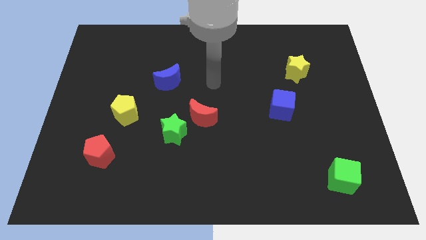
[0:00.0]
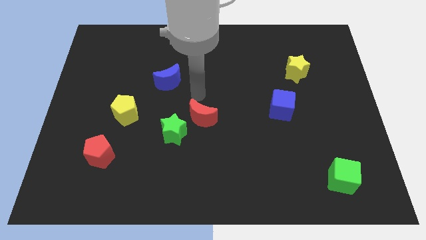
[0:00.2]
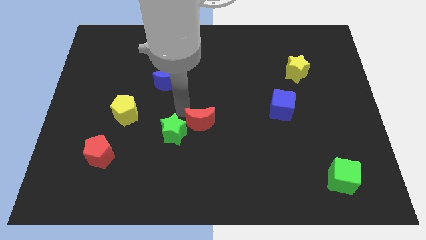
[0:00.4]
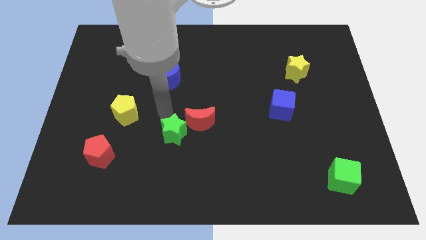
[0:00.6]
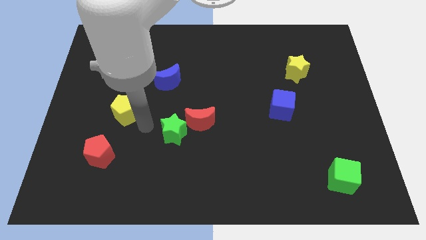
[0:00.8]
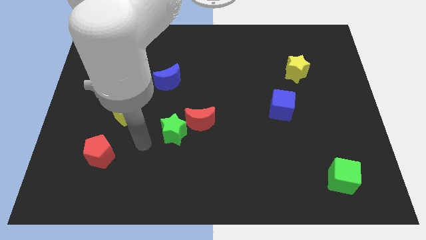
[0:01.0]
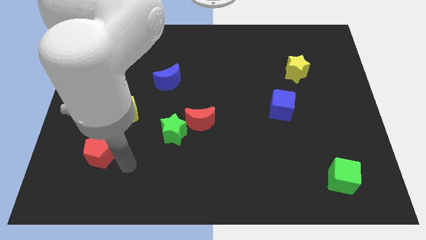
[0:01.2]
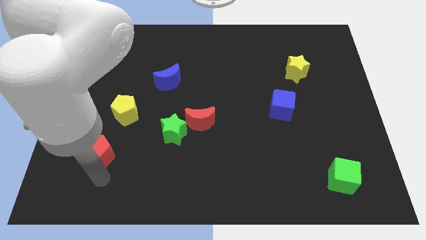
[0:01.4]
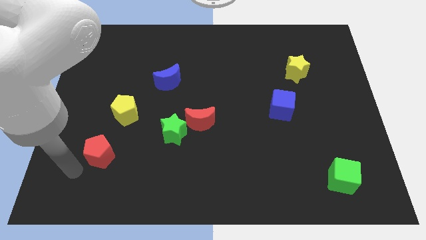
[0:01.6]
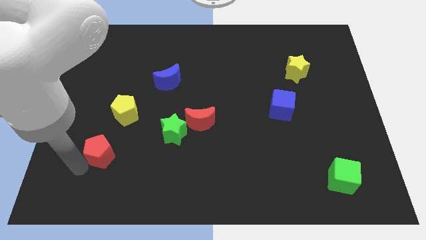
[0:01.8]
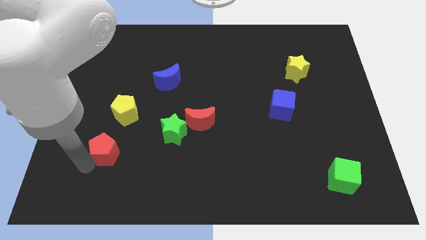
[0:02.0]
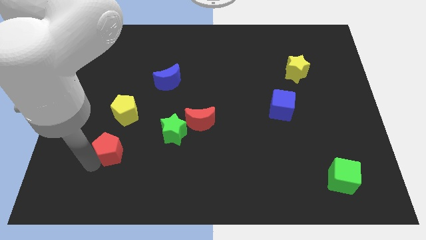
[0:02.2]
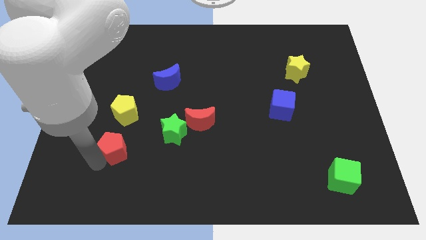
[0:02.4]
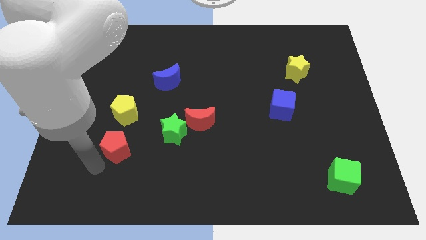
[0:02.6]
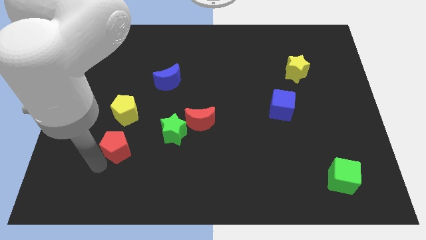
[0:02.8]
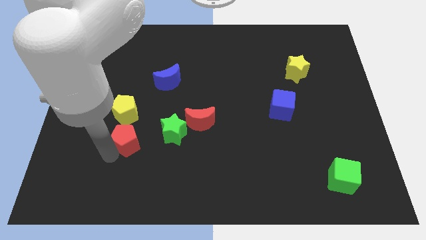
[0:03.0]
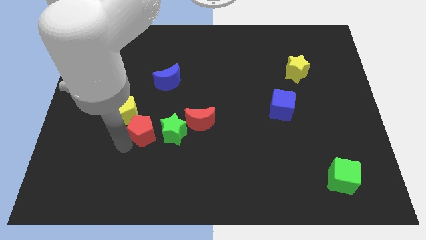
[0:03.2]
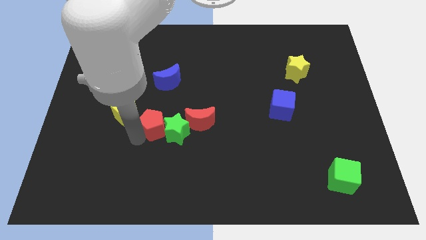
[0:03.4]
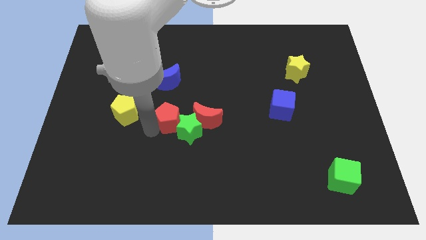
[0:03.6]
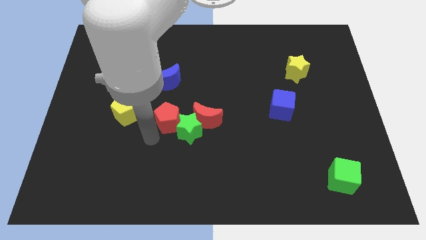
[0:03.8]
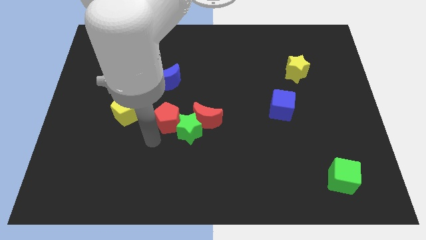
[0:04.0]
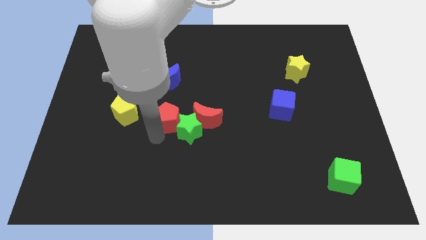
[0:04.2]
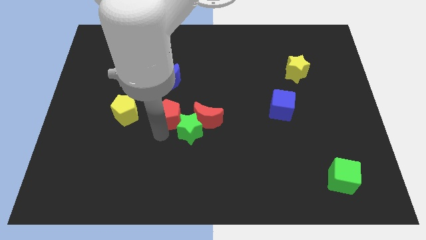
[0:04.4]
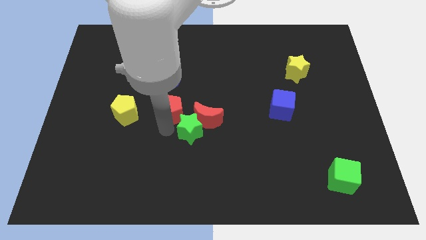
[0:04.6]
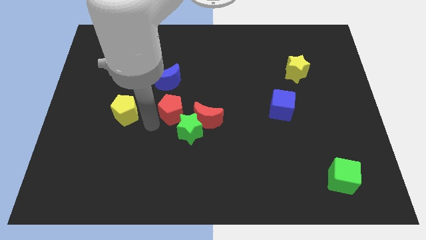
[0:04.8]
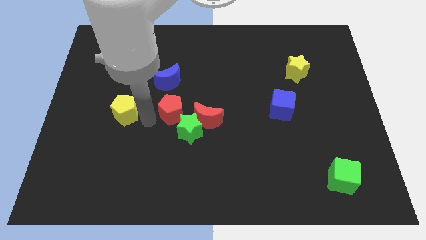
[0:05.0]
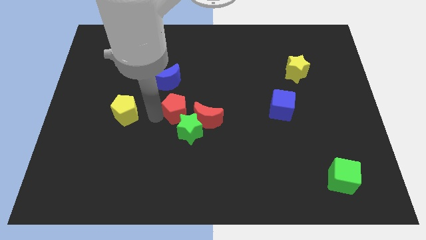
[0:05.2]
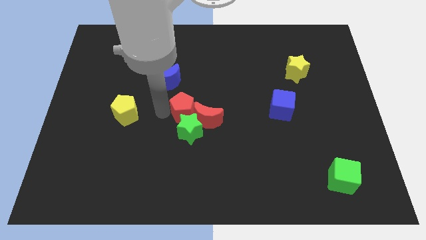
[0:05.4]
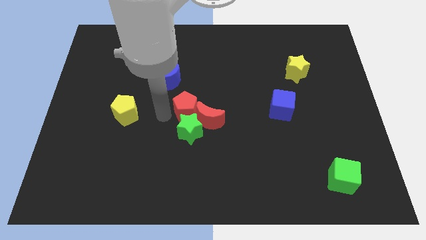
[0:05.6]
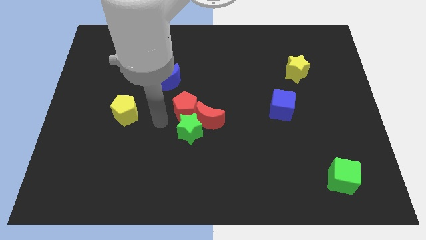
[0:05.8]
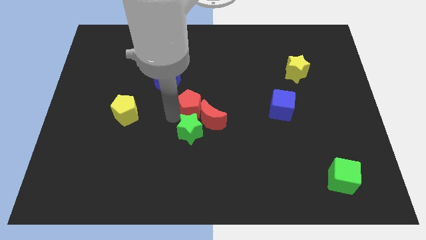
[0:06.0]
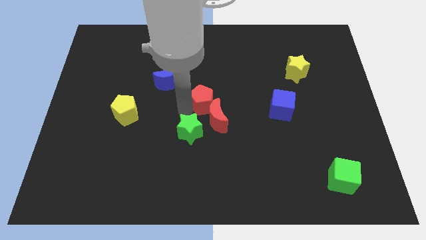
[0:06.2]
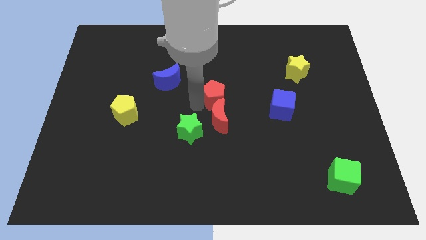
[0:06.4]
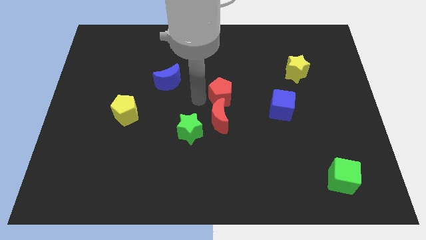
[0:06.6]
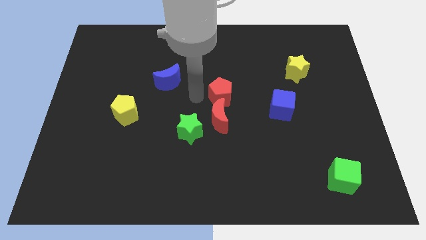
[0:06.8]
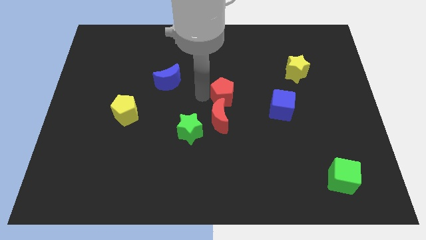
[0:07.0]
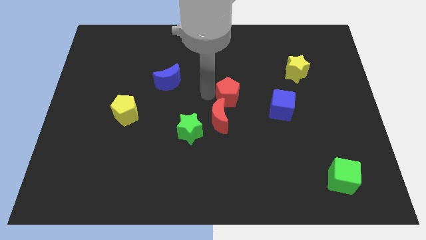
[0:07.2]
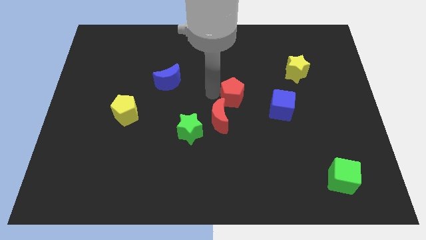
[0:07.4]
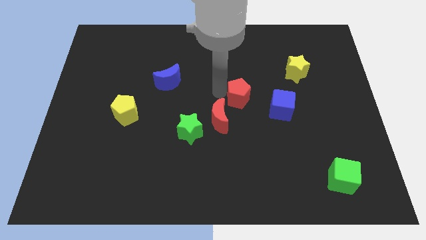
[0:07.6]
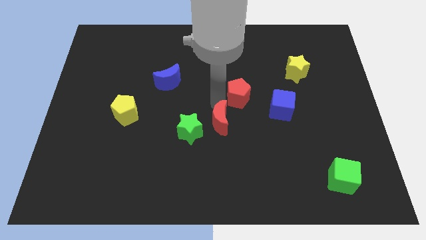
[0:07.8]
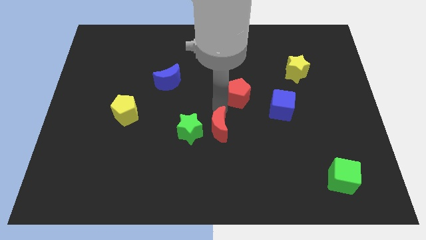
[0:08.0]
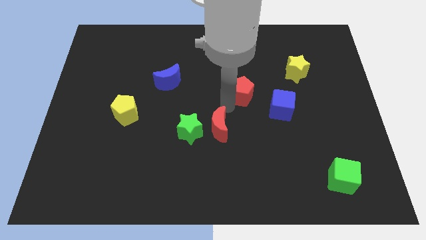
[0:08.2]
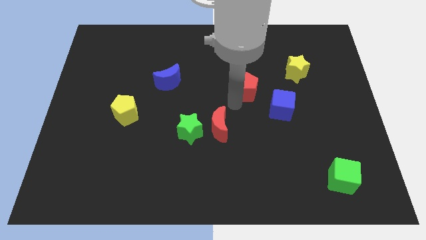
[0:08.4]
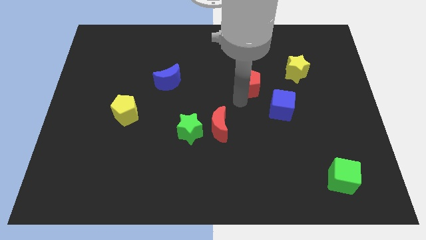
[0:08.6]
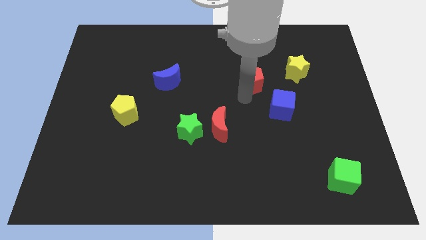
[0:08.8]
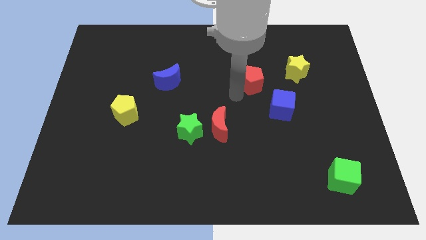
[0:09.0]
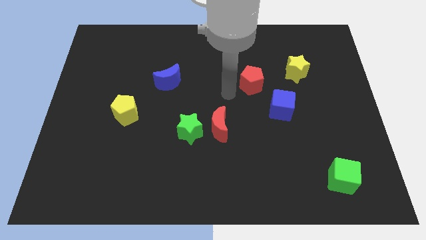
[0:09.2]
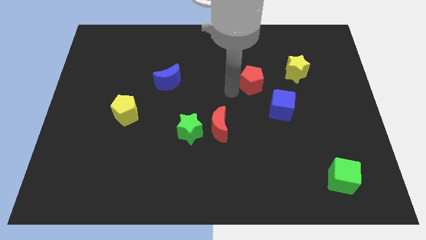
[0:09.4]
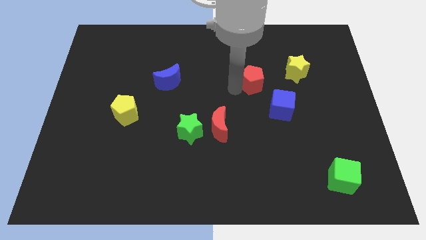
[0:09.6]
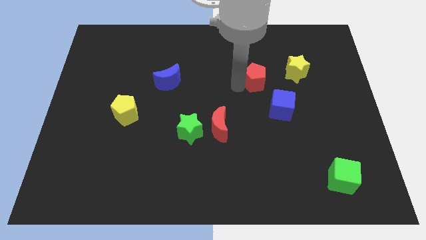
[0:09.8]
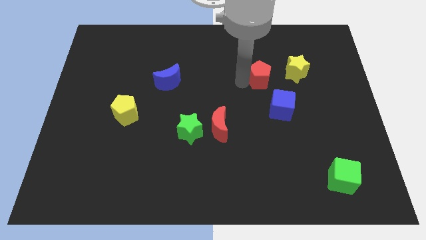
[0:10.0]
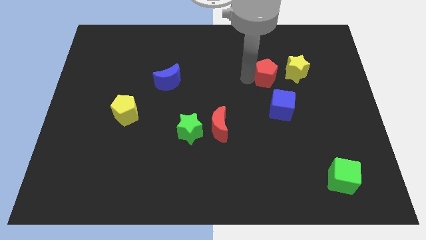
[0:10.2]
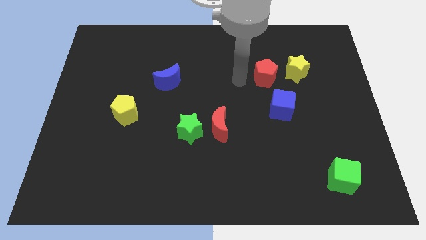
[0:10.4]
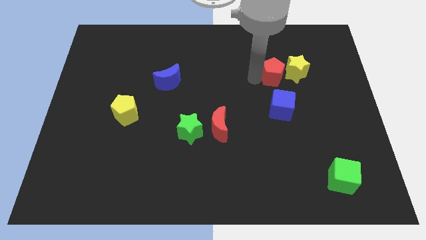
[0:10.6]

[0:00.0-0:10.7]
push the red pentagon close to the yellow star

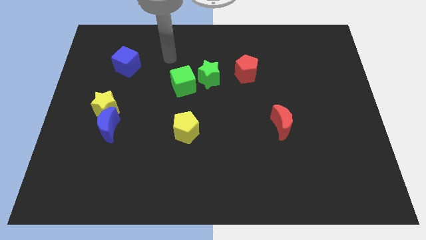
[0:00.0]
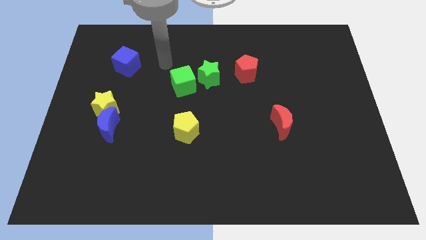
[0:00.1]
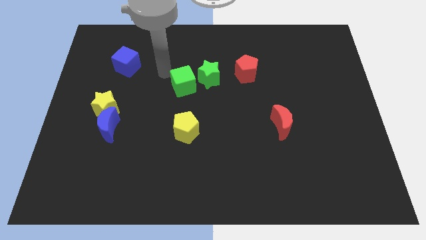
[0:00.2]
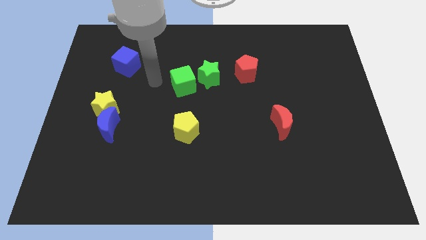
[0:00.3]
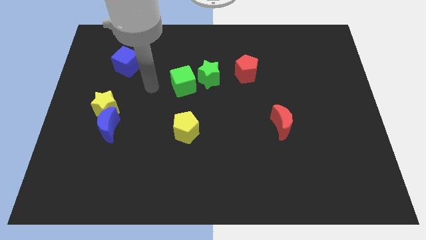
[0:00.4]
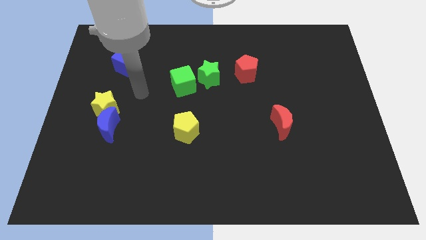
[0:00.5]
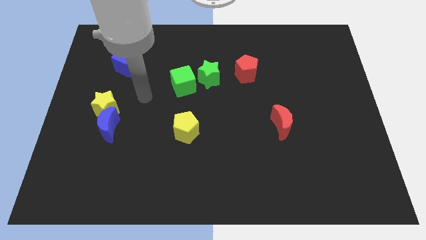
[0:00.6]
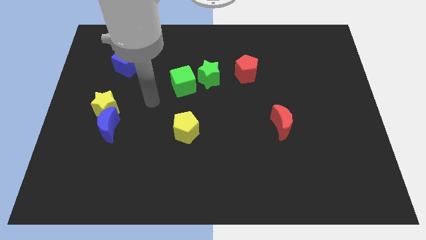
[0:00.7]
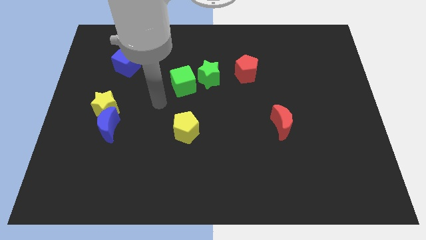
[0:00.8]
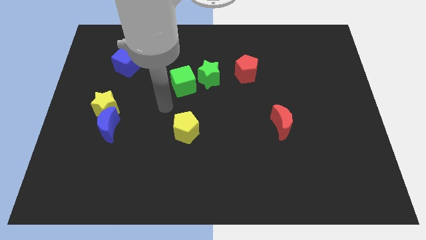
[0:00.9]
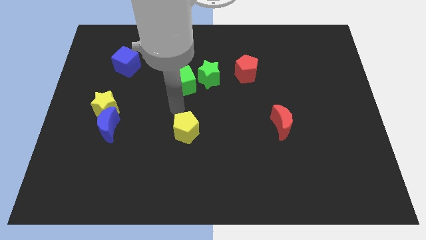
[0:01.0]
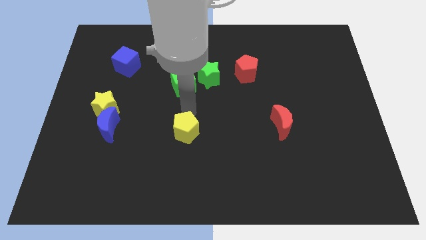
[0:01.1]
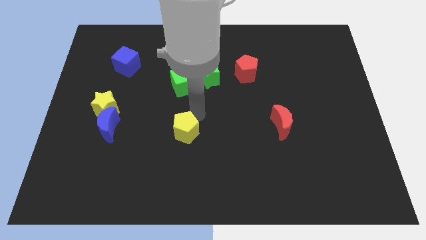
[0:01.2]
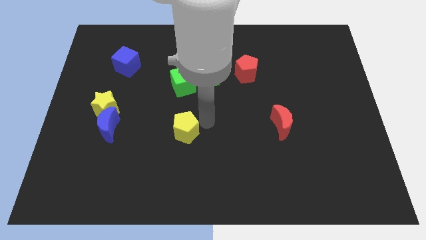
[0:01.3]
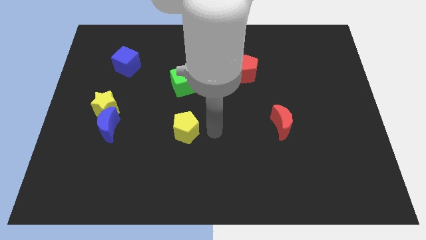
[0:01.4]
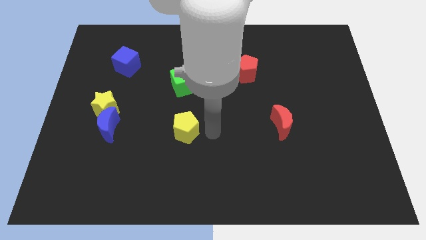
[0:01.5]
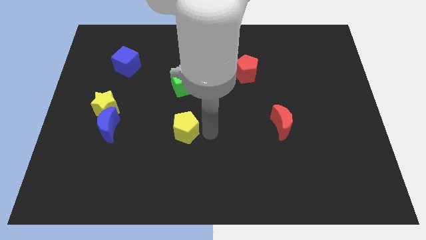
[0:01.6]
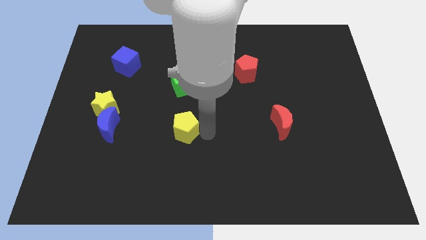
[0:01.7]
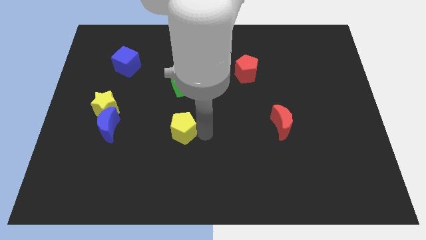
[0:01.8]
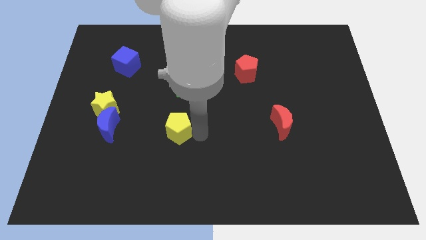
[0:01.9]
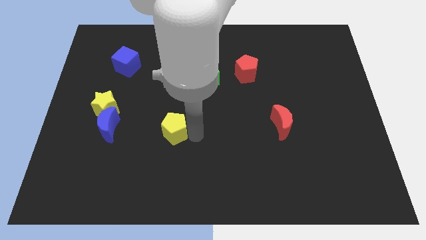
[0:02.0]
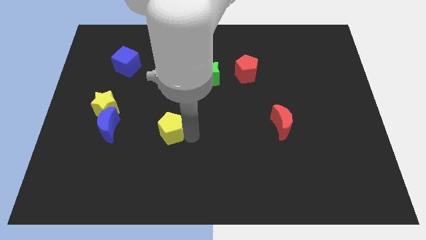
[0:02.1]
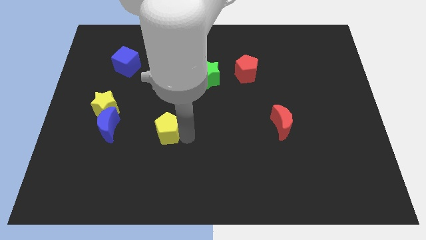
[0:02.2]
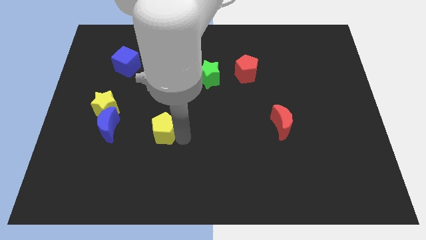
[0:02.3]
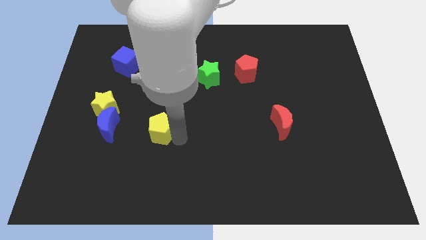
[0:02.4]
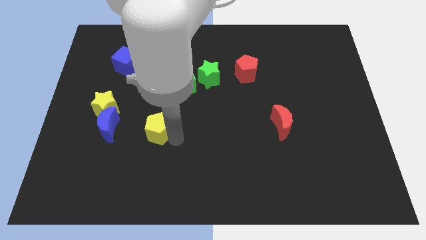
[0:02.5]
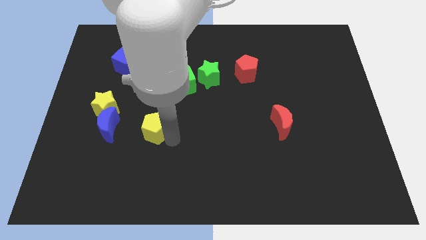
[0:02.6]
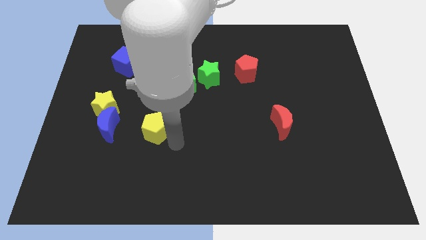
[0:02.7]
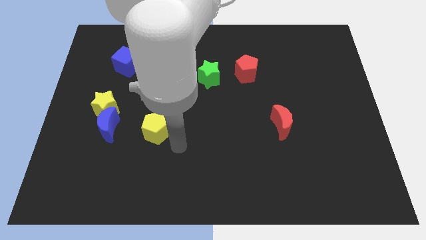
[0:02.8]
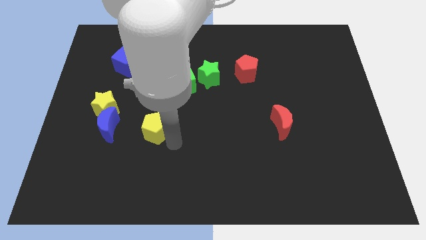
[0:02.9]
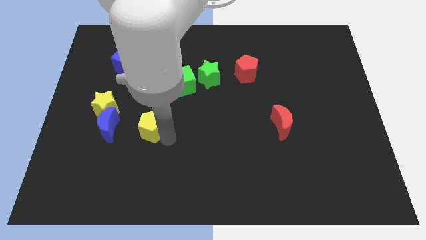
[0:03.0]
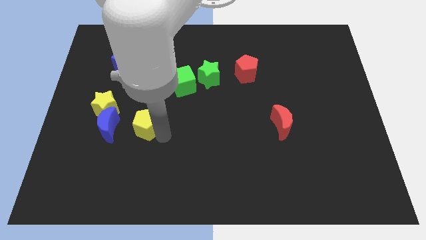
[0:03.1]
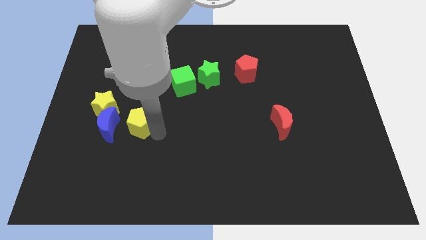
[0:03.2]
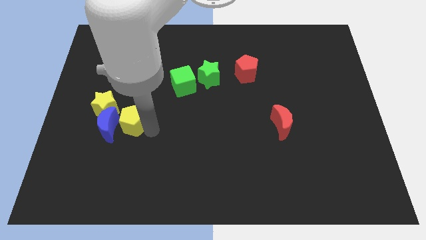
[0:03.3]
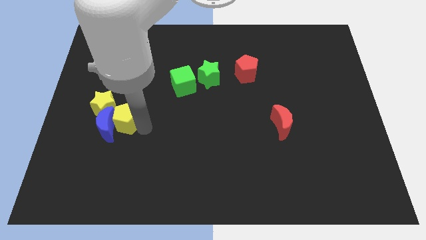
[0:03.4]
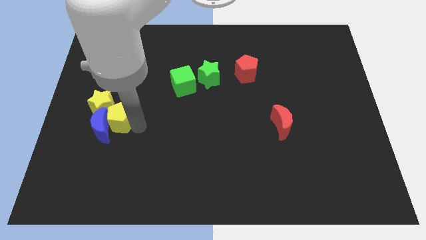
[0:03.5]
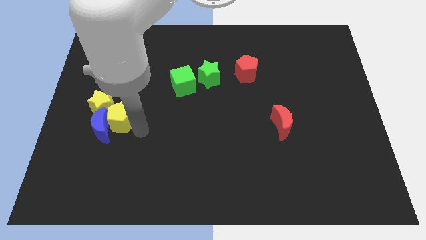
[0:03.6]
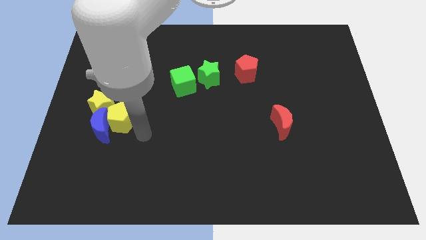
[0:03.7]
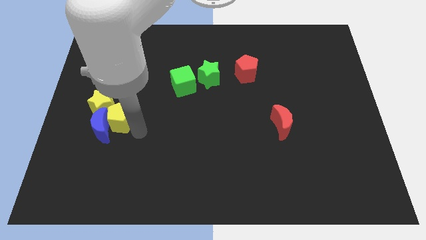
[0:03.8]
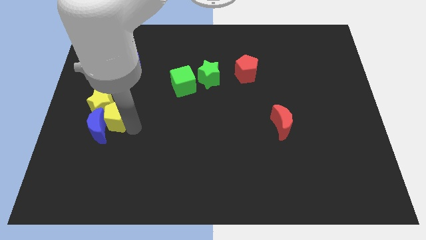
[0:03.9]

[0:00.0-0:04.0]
slide the yellow pentagon to the yellow star
